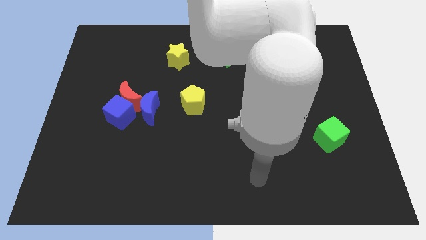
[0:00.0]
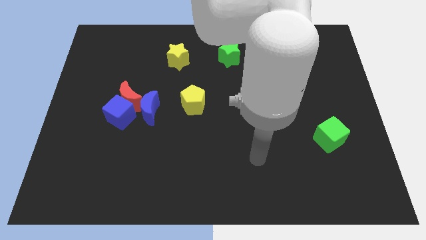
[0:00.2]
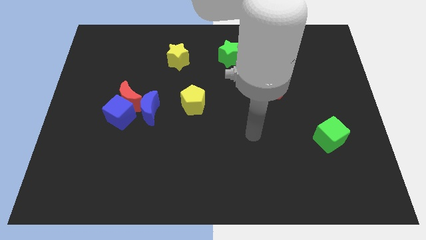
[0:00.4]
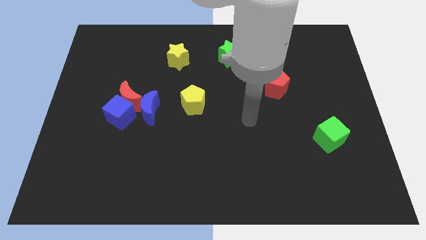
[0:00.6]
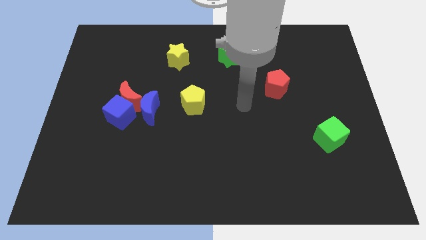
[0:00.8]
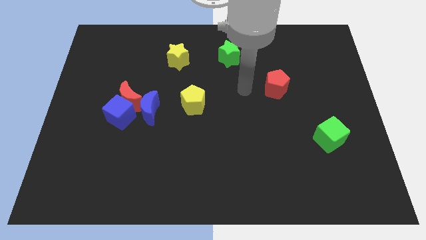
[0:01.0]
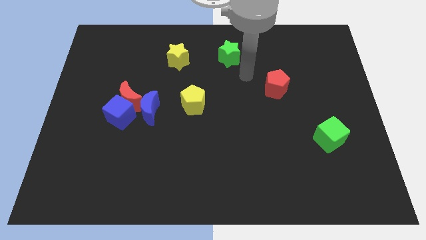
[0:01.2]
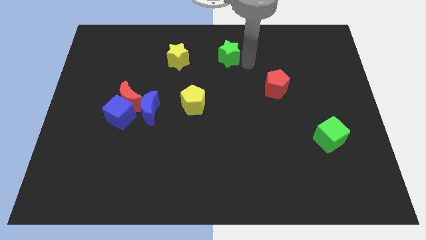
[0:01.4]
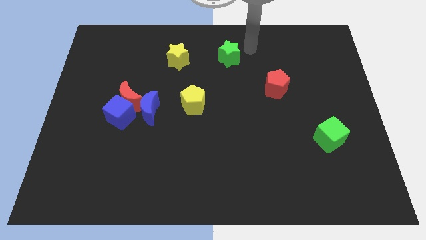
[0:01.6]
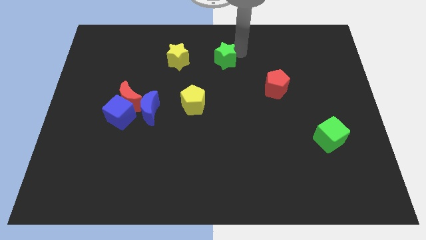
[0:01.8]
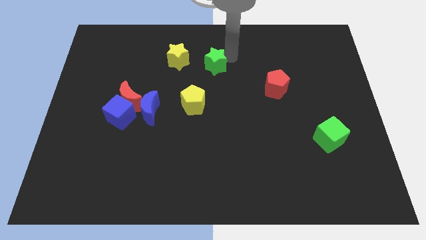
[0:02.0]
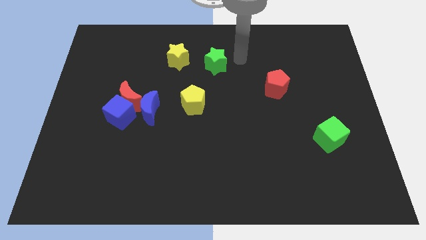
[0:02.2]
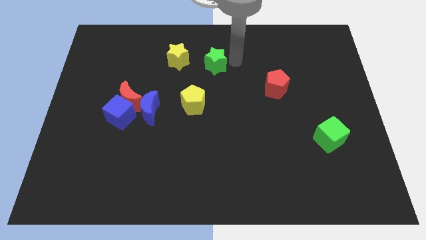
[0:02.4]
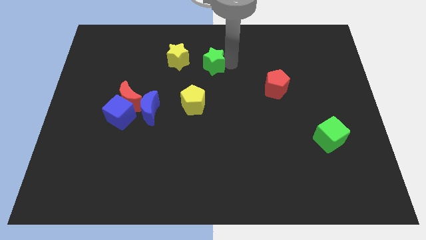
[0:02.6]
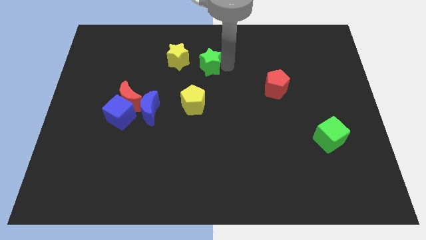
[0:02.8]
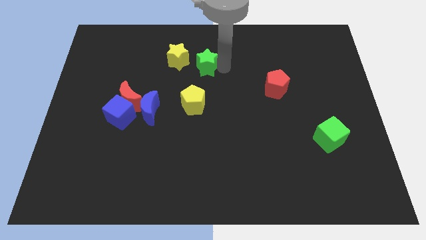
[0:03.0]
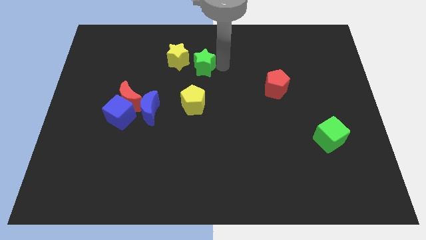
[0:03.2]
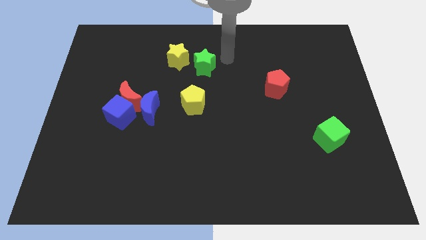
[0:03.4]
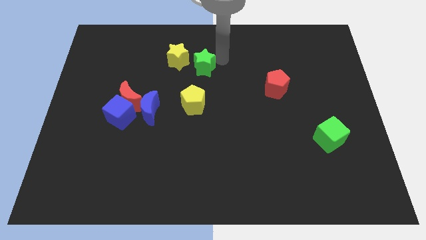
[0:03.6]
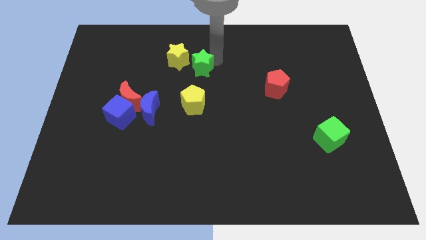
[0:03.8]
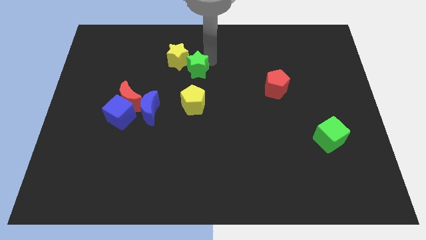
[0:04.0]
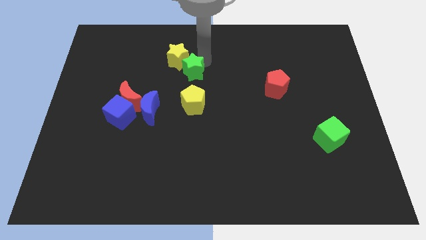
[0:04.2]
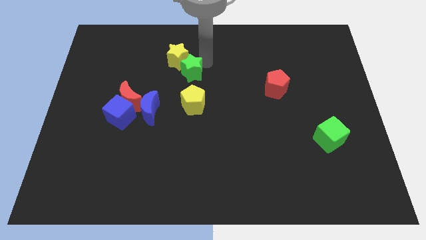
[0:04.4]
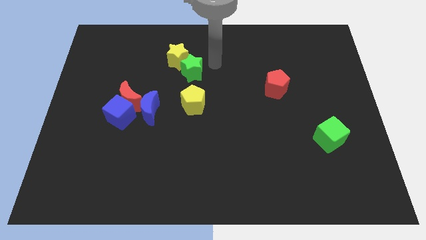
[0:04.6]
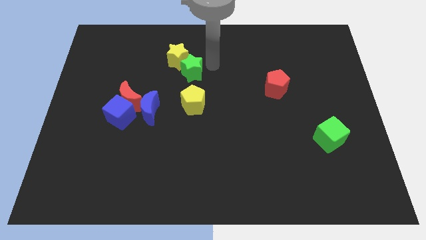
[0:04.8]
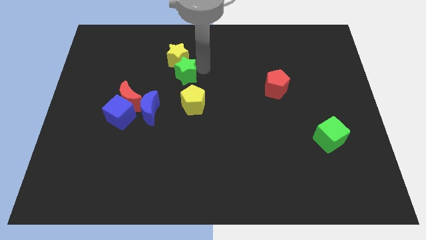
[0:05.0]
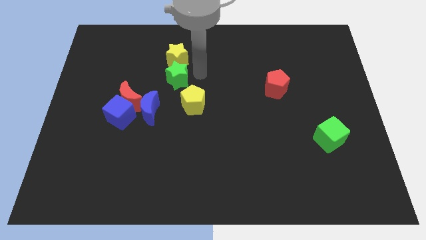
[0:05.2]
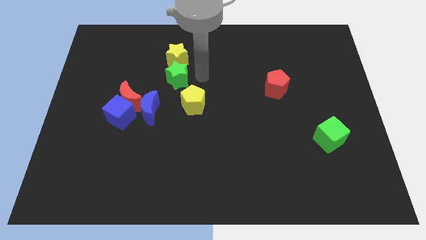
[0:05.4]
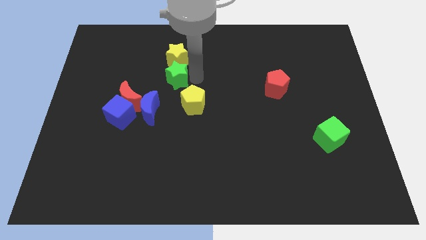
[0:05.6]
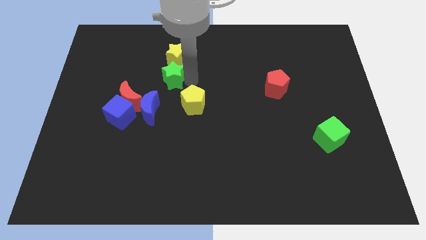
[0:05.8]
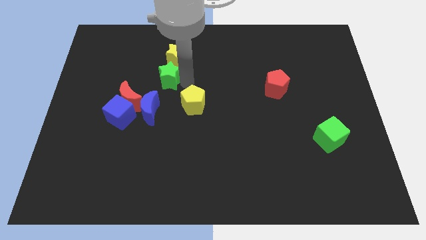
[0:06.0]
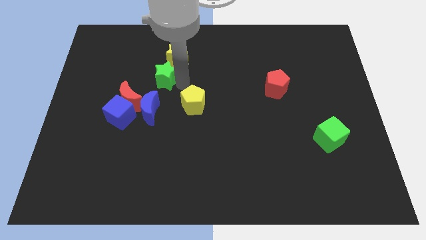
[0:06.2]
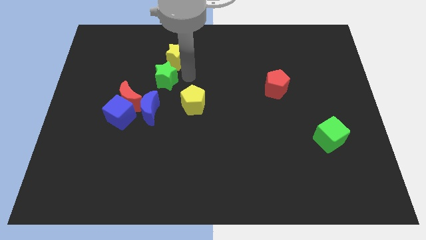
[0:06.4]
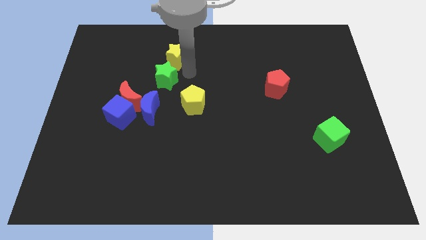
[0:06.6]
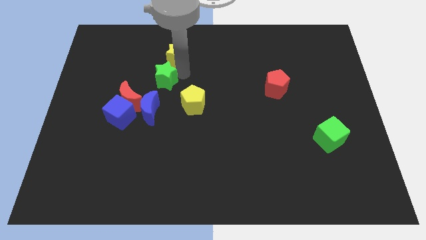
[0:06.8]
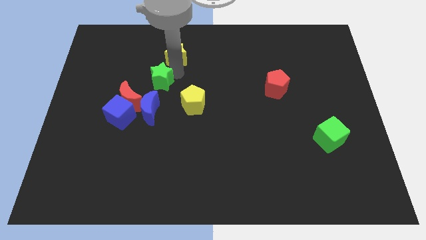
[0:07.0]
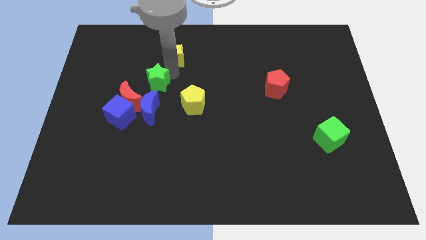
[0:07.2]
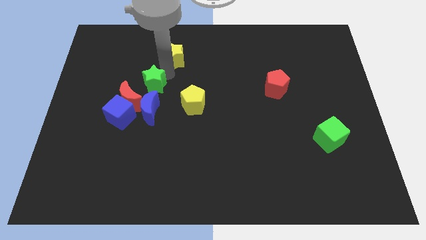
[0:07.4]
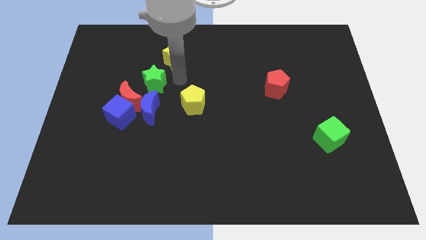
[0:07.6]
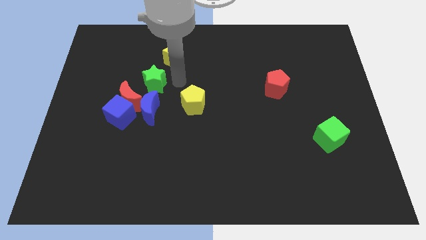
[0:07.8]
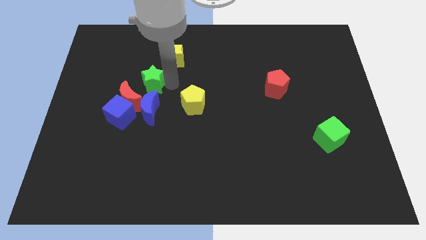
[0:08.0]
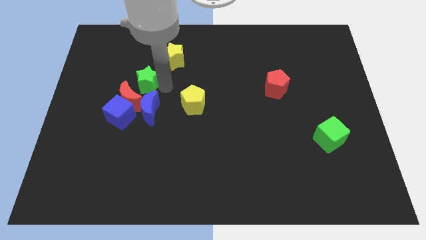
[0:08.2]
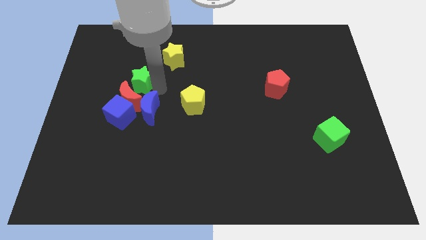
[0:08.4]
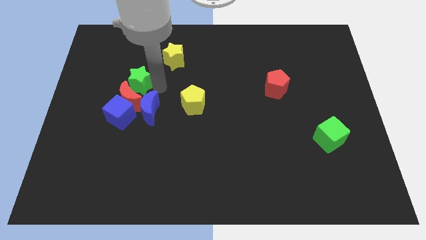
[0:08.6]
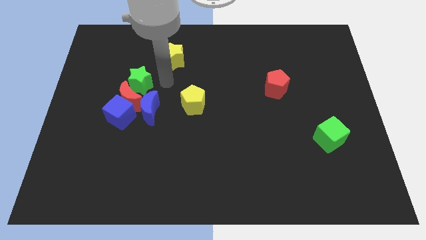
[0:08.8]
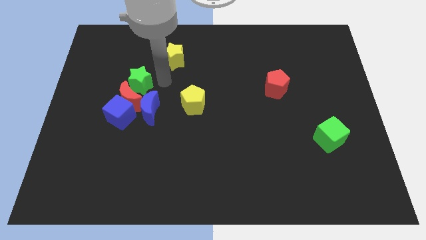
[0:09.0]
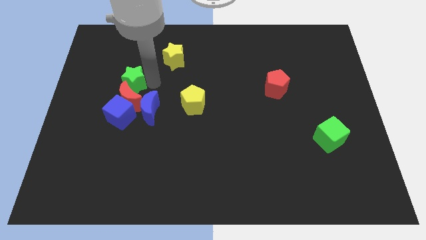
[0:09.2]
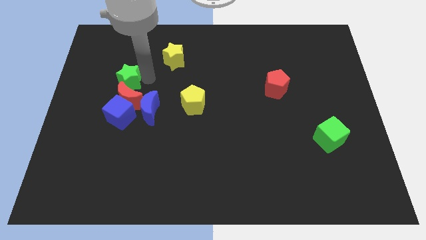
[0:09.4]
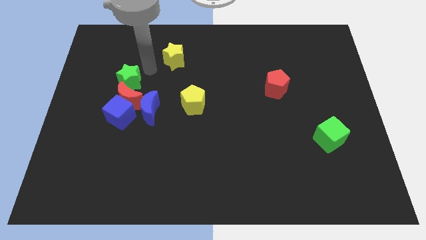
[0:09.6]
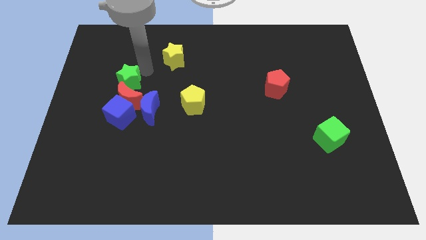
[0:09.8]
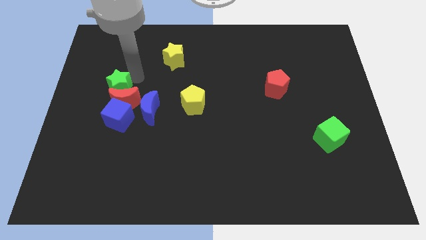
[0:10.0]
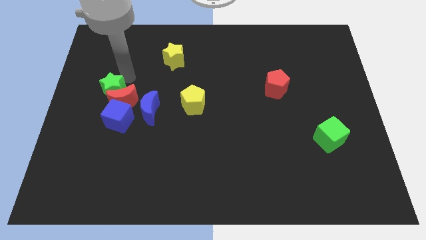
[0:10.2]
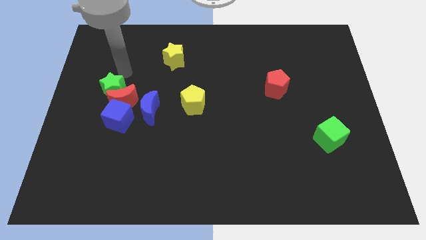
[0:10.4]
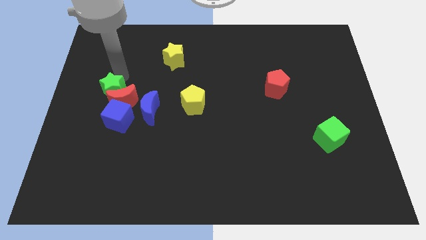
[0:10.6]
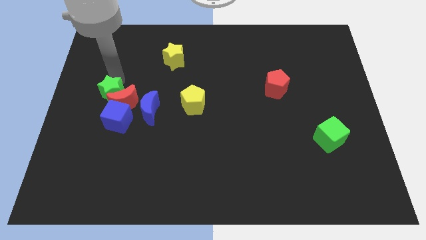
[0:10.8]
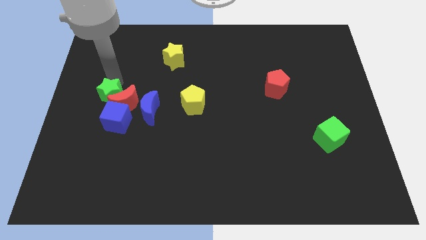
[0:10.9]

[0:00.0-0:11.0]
move the green star to the left side of the blue moon

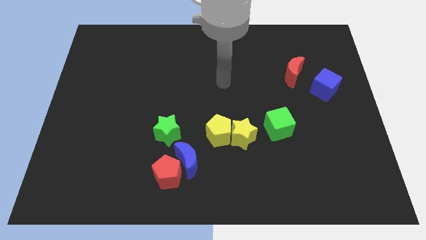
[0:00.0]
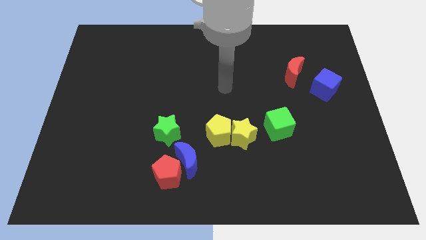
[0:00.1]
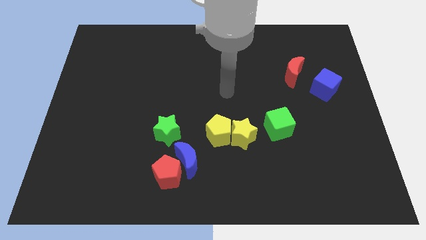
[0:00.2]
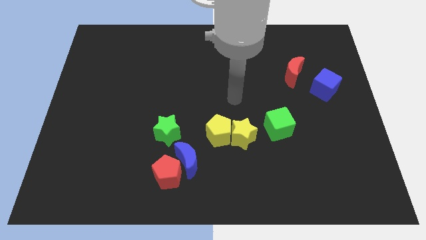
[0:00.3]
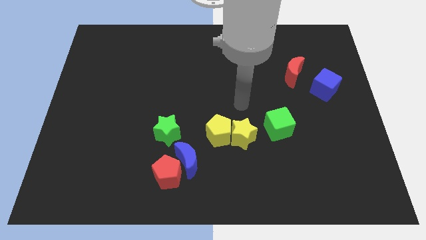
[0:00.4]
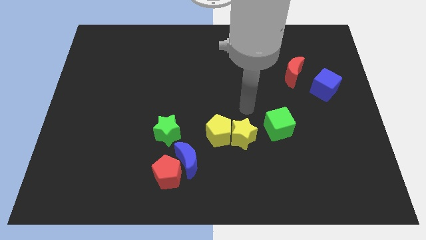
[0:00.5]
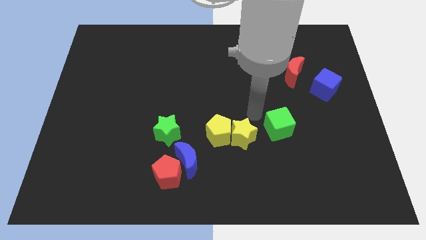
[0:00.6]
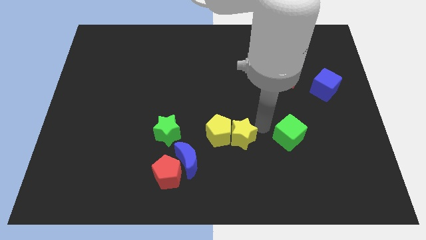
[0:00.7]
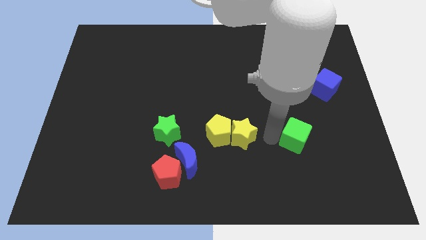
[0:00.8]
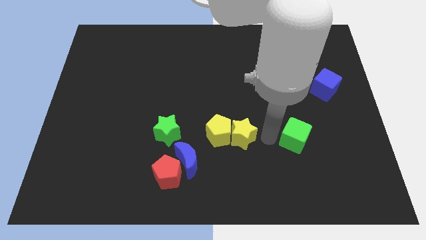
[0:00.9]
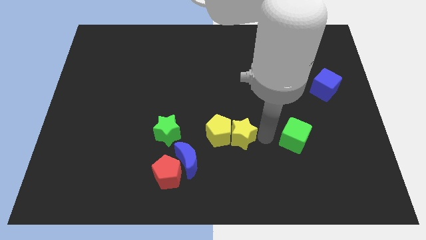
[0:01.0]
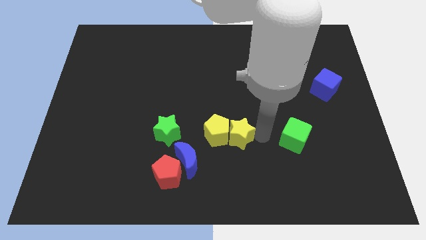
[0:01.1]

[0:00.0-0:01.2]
slide the yellow star just right of the green star

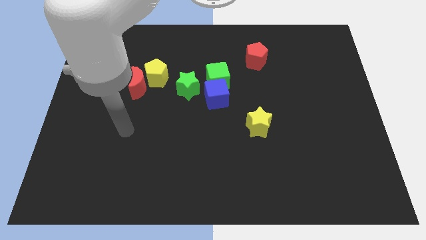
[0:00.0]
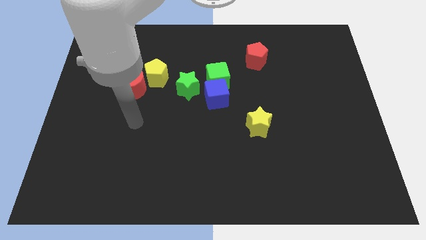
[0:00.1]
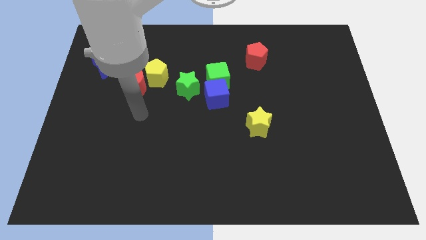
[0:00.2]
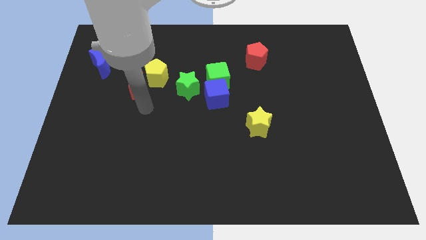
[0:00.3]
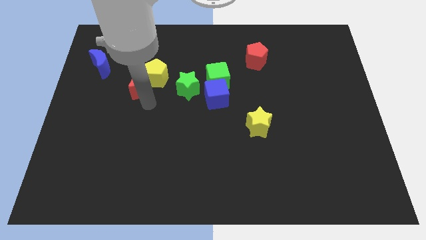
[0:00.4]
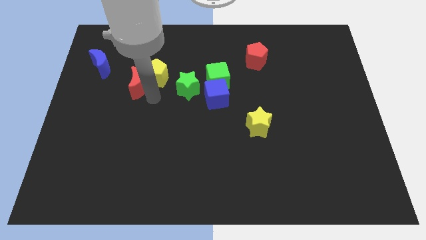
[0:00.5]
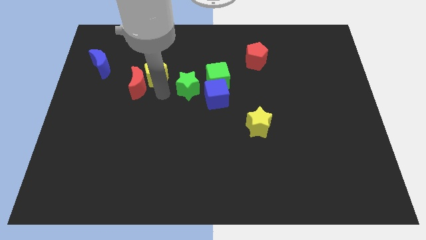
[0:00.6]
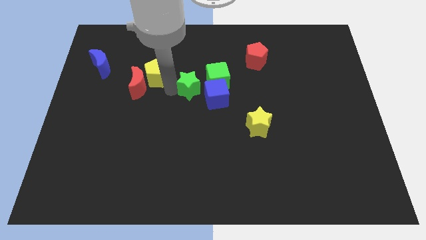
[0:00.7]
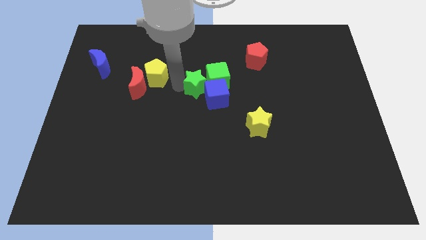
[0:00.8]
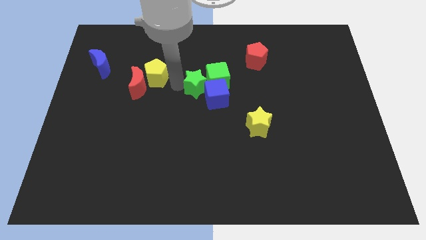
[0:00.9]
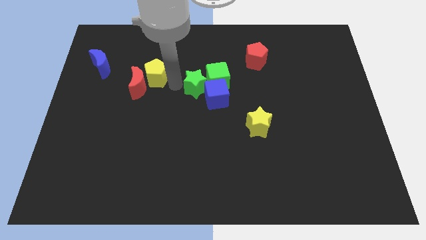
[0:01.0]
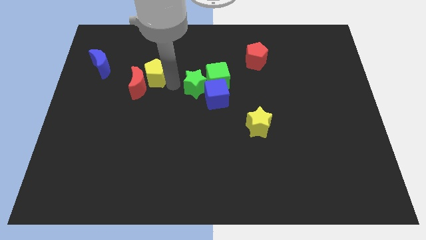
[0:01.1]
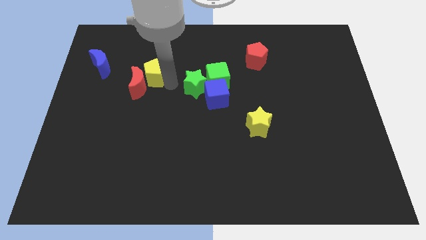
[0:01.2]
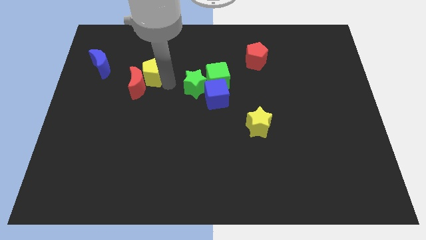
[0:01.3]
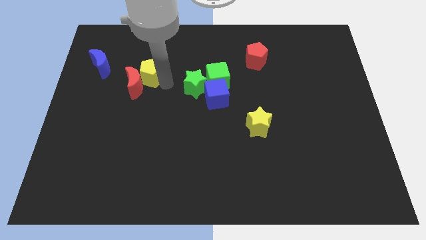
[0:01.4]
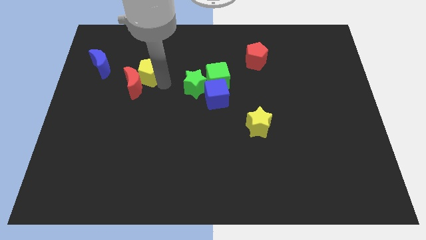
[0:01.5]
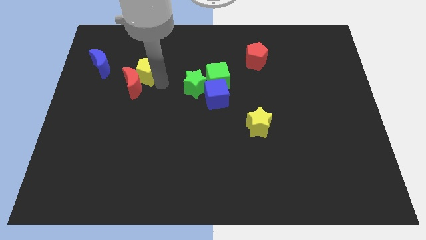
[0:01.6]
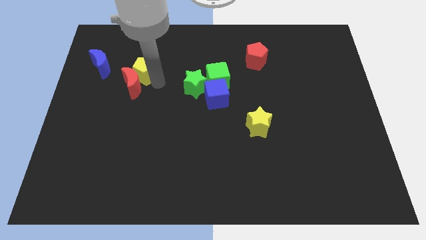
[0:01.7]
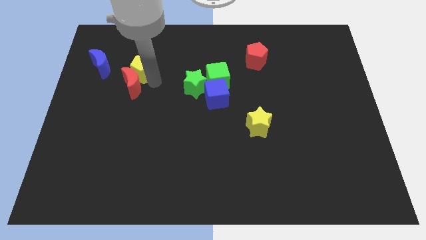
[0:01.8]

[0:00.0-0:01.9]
move the yellow pentagon to the top left of the red moon
